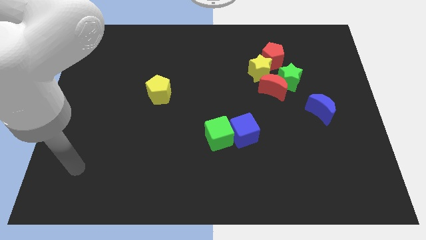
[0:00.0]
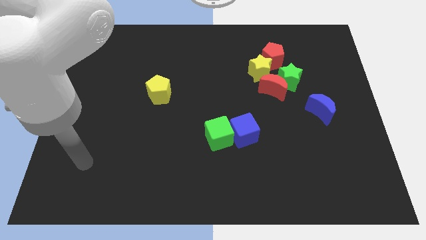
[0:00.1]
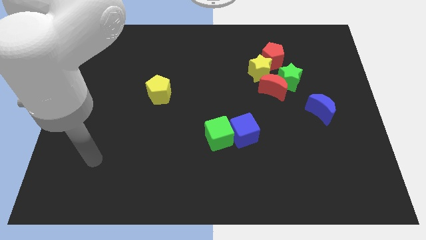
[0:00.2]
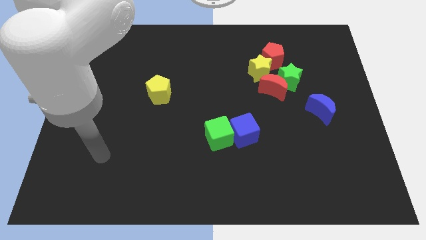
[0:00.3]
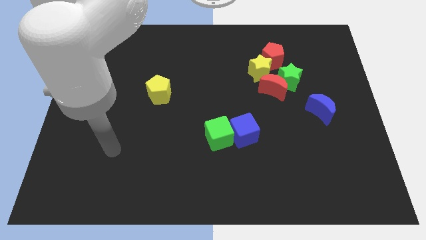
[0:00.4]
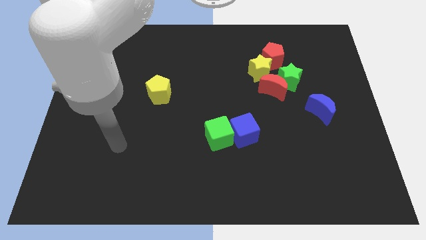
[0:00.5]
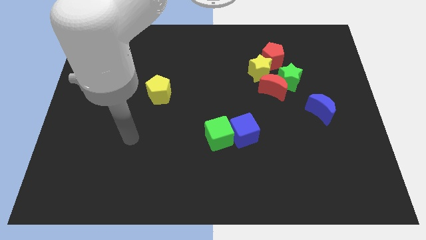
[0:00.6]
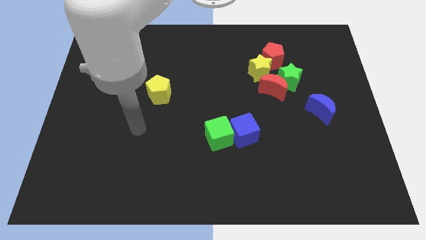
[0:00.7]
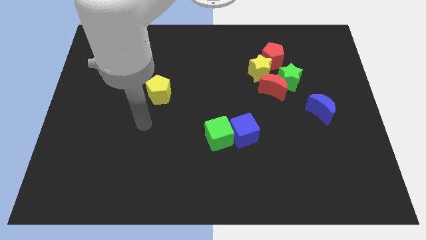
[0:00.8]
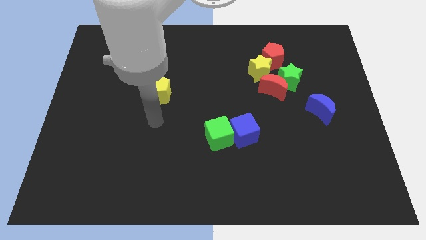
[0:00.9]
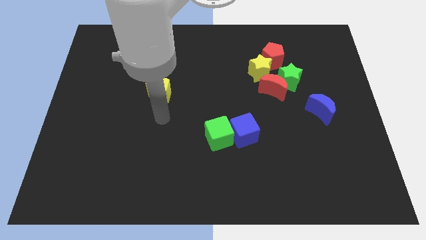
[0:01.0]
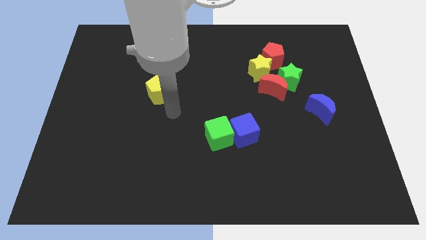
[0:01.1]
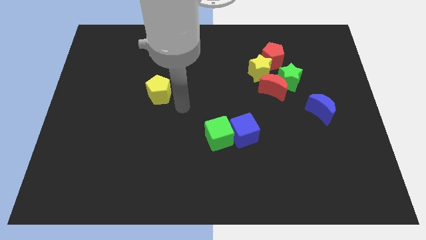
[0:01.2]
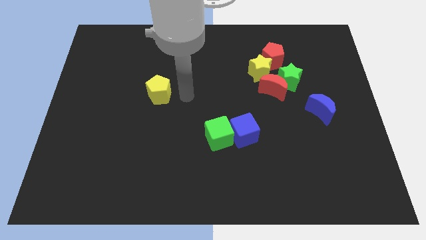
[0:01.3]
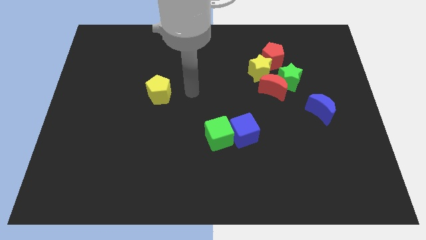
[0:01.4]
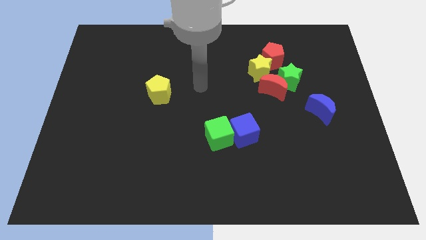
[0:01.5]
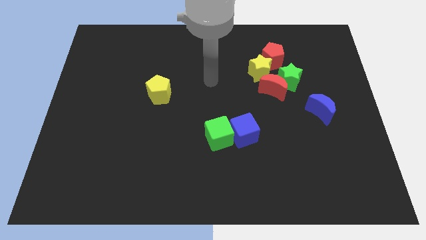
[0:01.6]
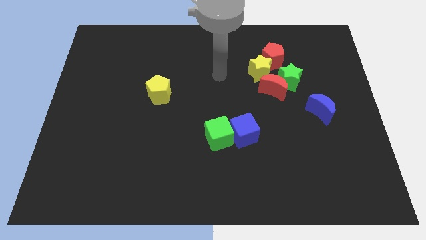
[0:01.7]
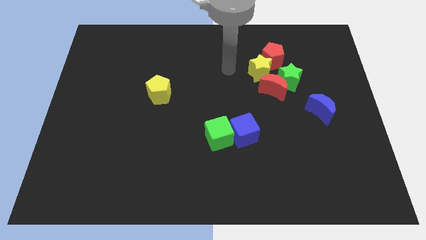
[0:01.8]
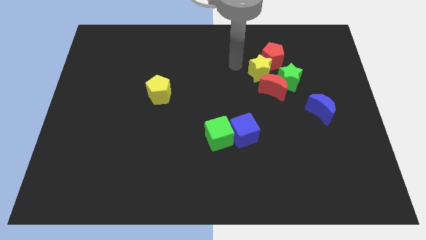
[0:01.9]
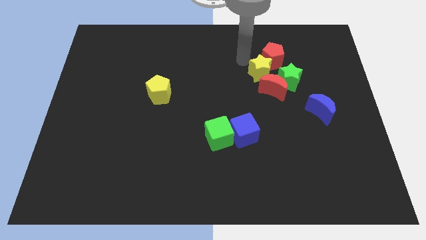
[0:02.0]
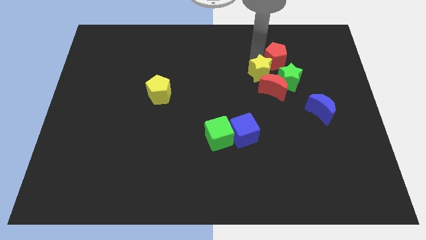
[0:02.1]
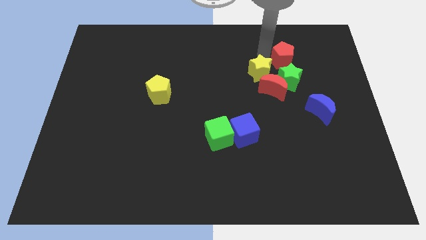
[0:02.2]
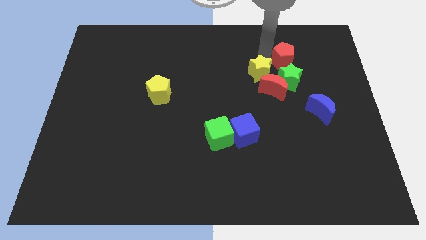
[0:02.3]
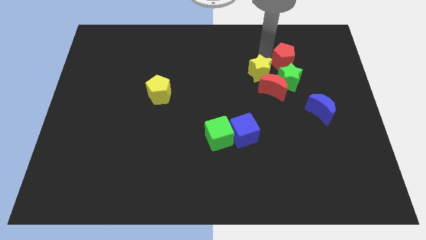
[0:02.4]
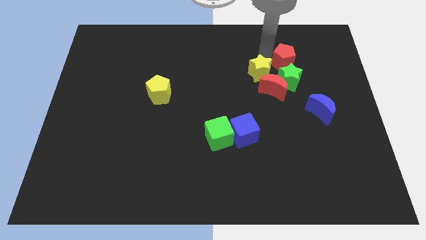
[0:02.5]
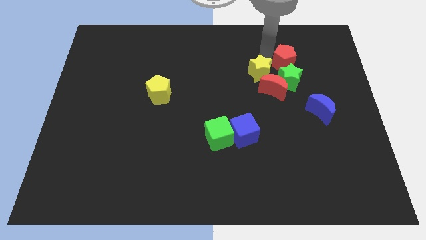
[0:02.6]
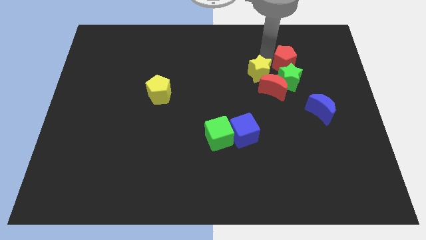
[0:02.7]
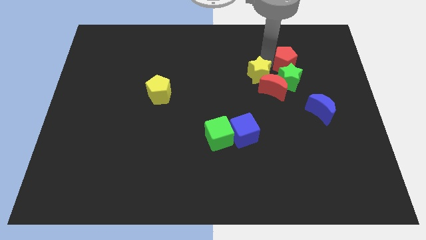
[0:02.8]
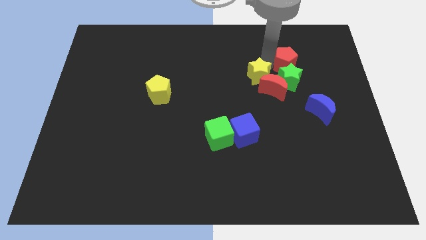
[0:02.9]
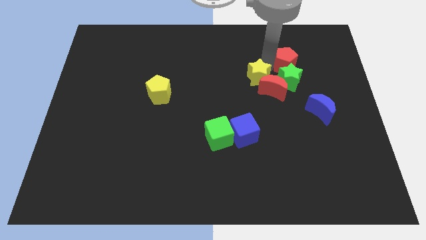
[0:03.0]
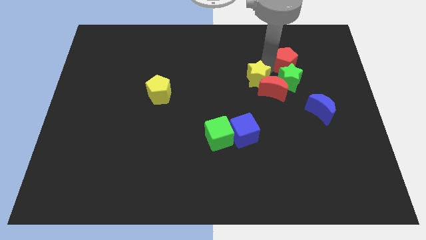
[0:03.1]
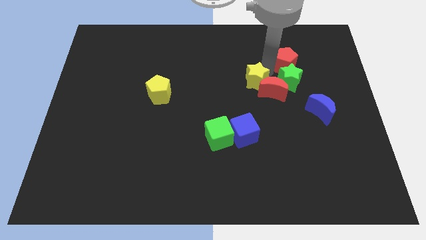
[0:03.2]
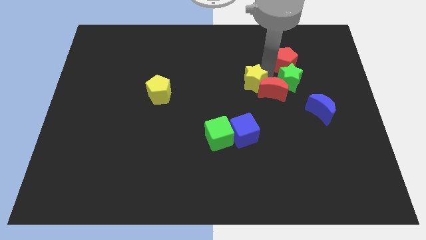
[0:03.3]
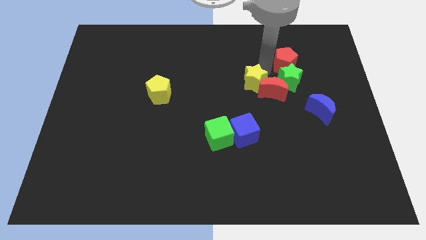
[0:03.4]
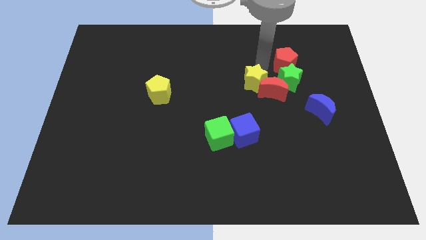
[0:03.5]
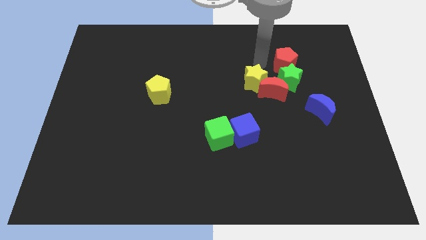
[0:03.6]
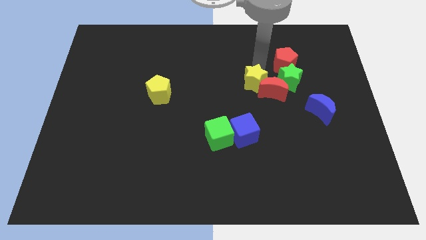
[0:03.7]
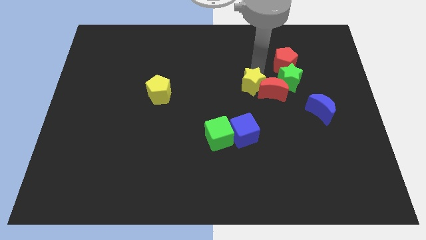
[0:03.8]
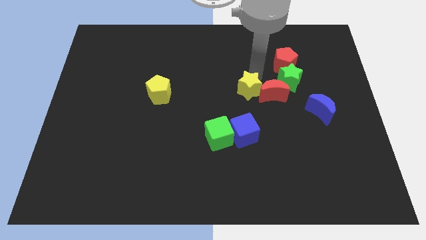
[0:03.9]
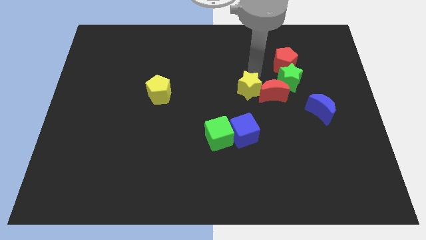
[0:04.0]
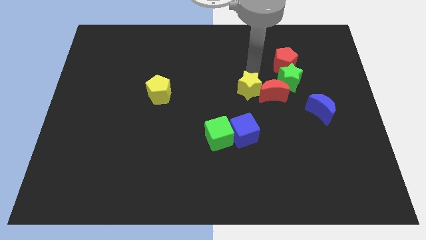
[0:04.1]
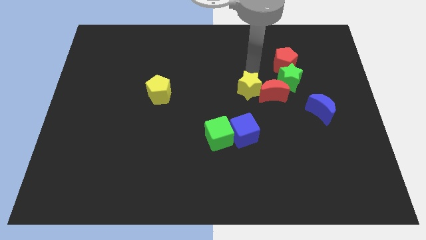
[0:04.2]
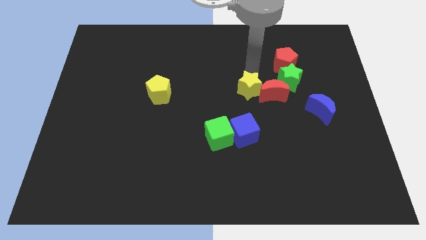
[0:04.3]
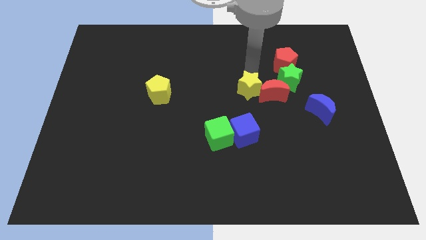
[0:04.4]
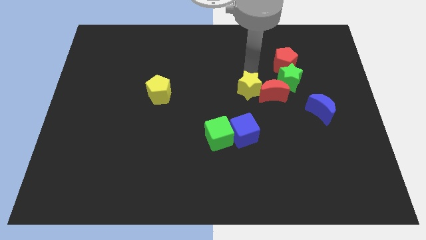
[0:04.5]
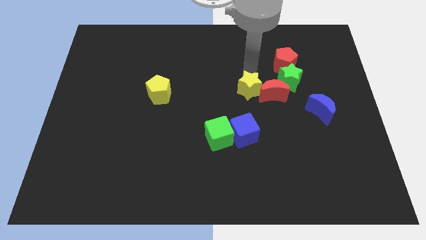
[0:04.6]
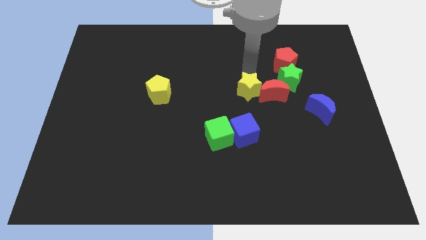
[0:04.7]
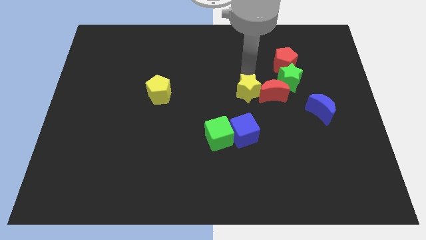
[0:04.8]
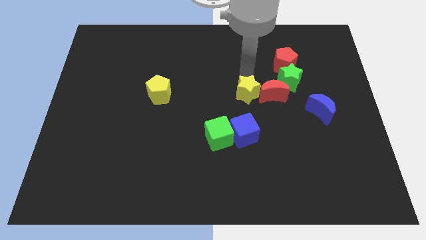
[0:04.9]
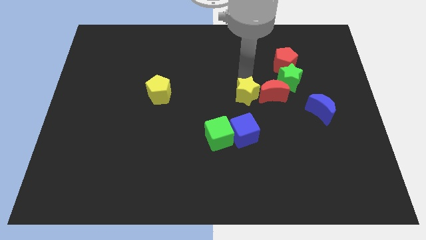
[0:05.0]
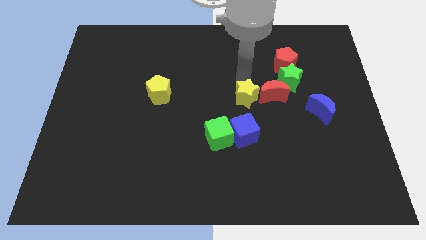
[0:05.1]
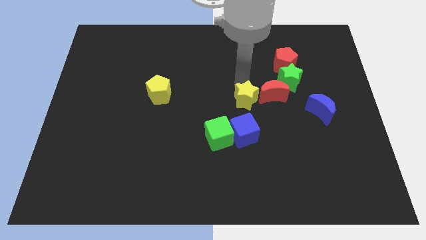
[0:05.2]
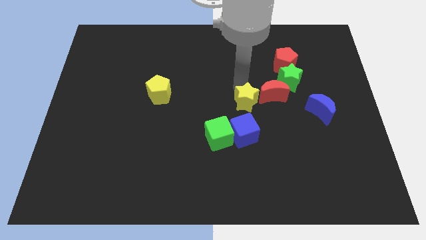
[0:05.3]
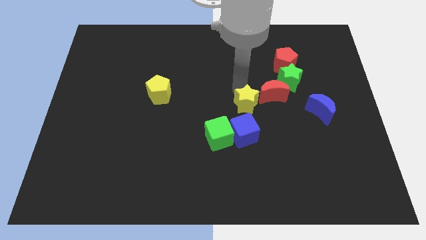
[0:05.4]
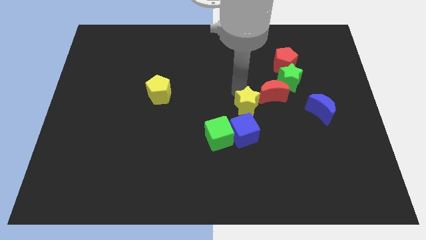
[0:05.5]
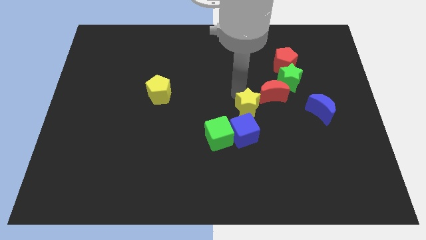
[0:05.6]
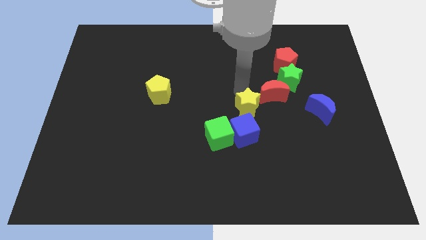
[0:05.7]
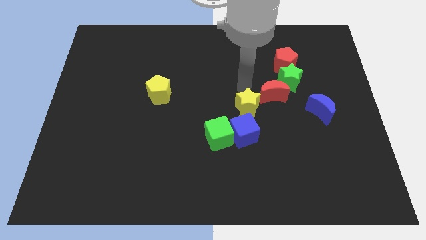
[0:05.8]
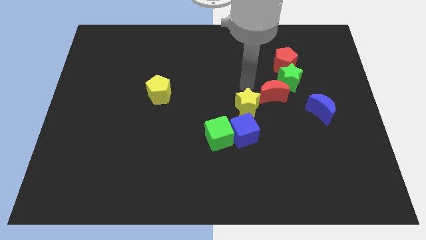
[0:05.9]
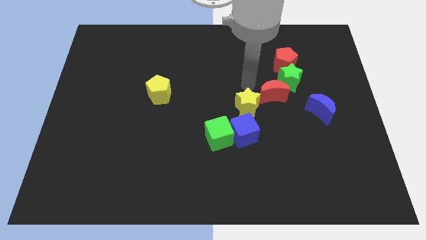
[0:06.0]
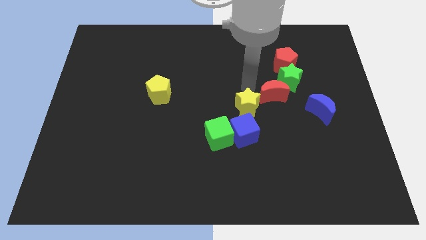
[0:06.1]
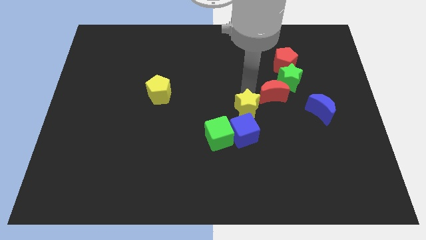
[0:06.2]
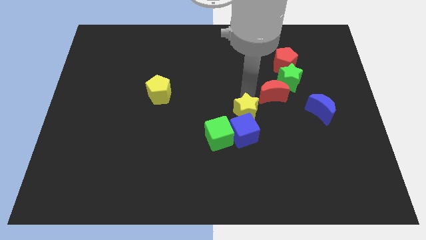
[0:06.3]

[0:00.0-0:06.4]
put the yellow star to the blue cube

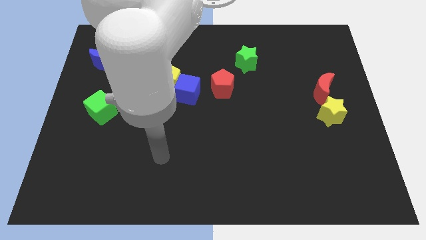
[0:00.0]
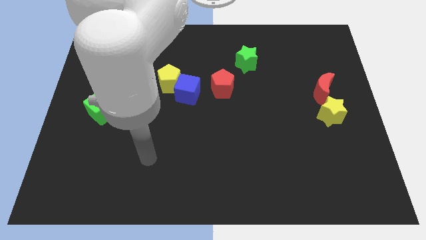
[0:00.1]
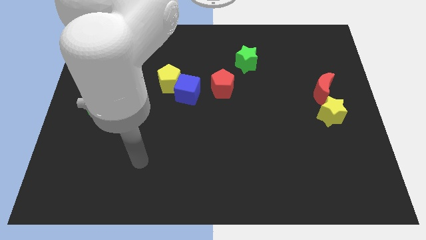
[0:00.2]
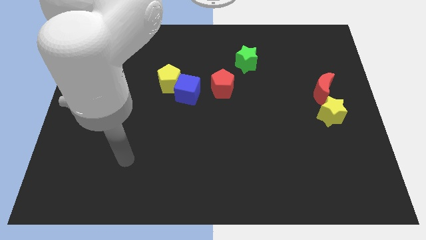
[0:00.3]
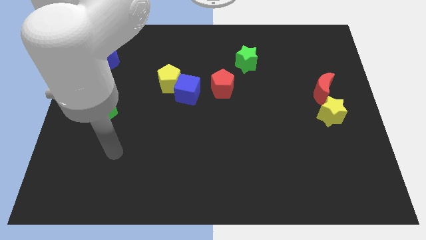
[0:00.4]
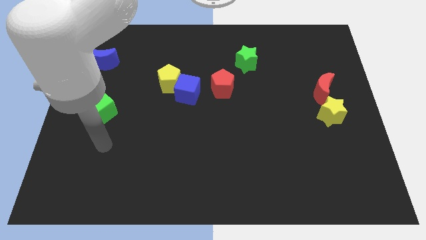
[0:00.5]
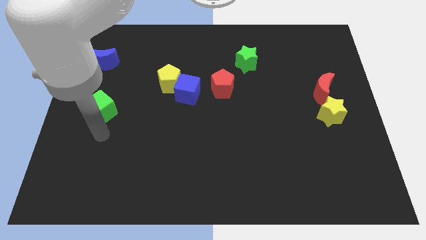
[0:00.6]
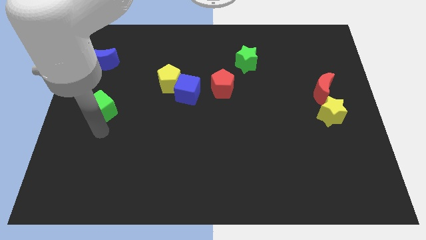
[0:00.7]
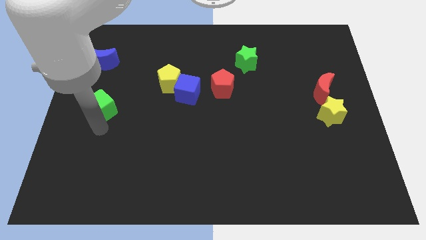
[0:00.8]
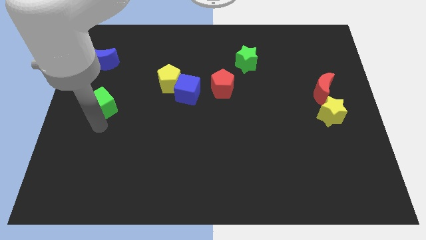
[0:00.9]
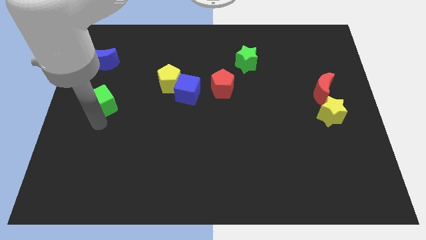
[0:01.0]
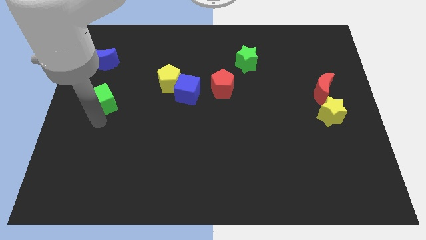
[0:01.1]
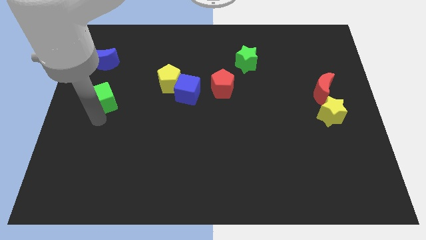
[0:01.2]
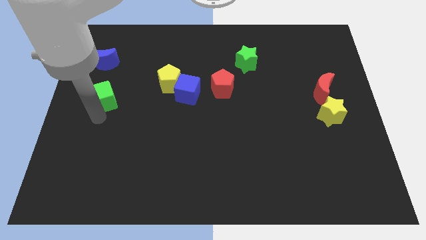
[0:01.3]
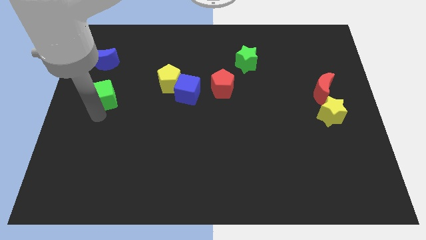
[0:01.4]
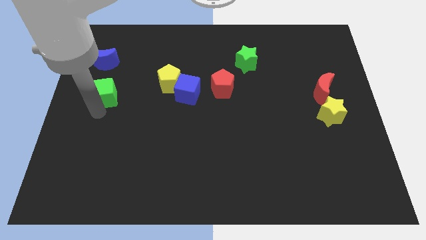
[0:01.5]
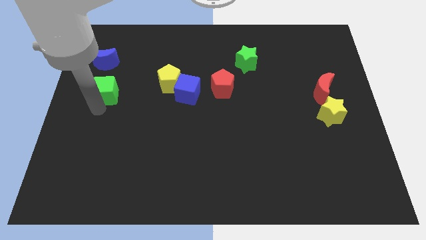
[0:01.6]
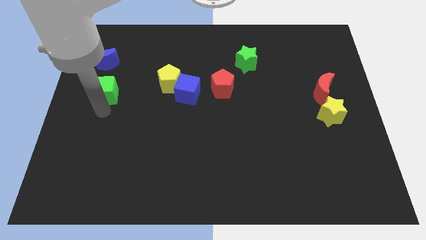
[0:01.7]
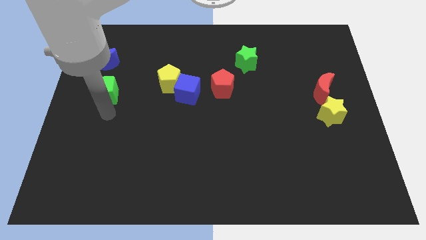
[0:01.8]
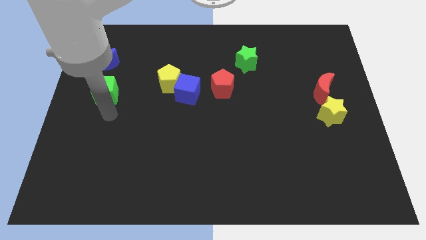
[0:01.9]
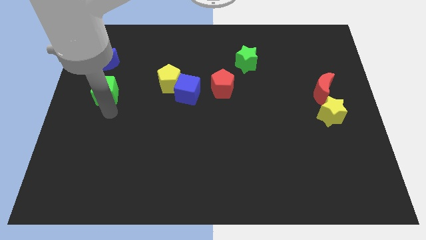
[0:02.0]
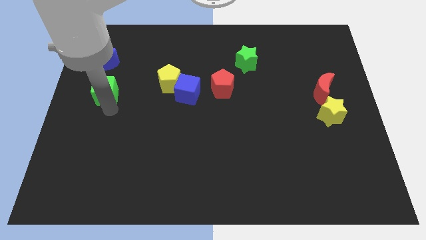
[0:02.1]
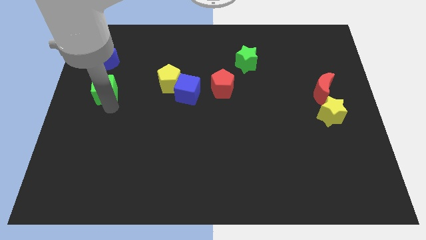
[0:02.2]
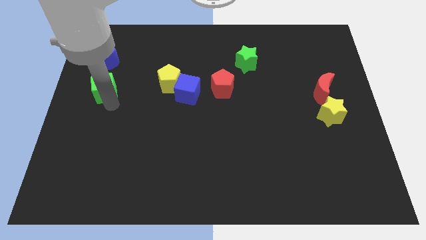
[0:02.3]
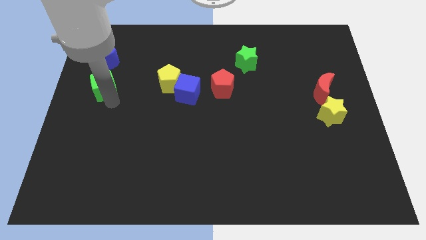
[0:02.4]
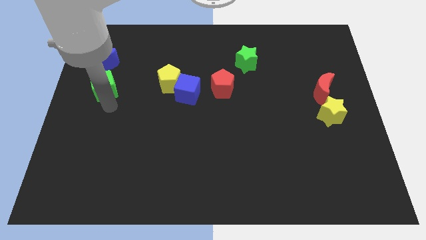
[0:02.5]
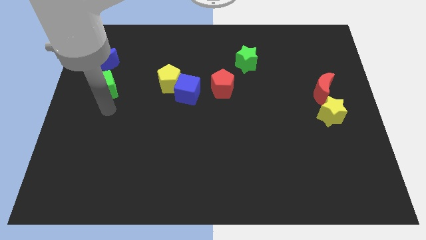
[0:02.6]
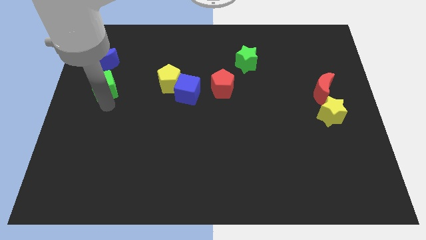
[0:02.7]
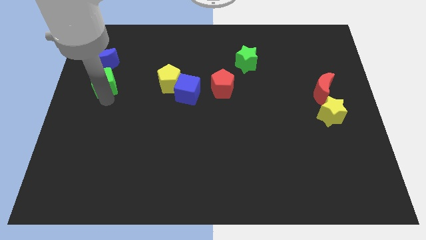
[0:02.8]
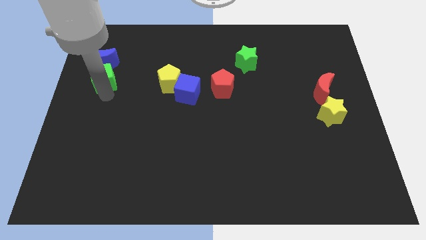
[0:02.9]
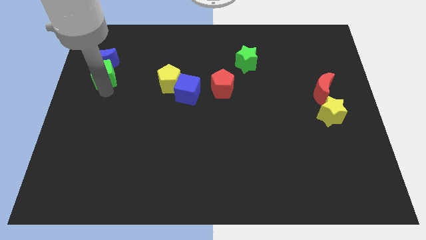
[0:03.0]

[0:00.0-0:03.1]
move the green cube next to the blue moon
